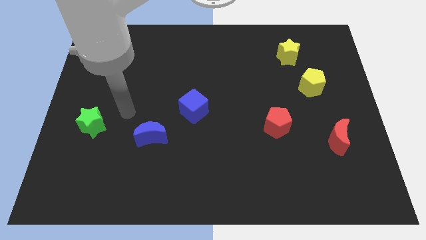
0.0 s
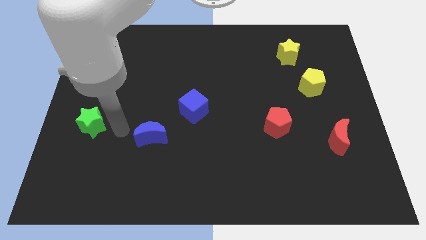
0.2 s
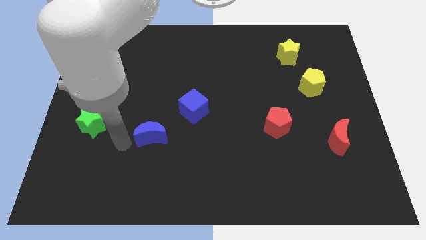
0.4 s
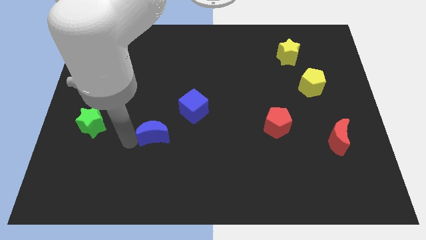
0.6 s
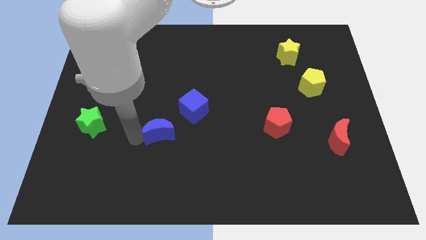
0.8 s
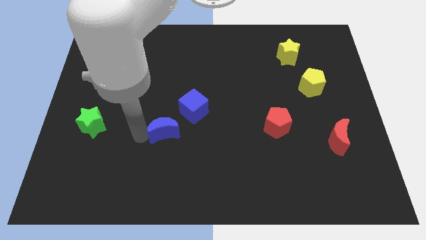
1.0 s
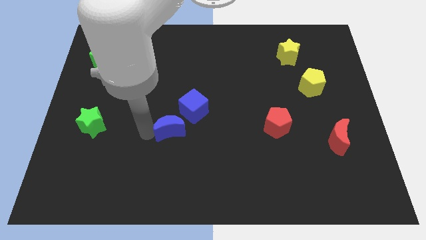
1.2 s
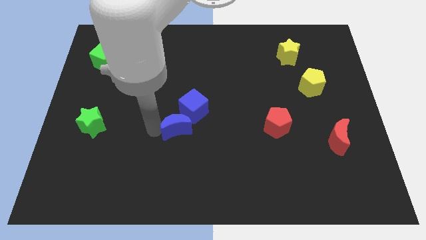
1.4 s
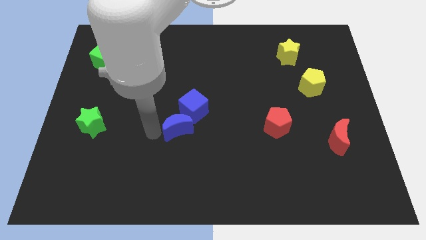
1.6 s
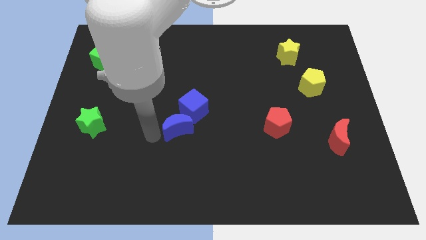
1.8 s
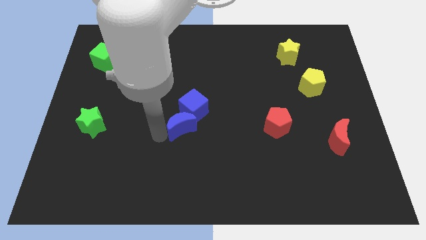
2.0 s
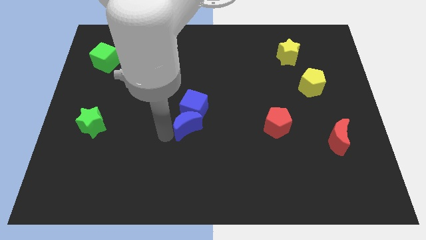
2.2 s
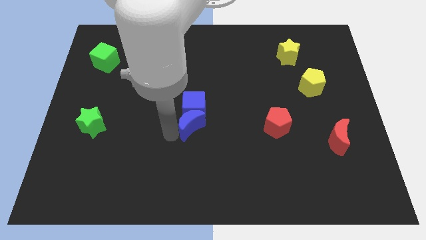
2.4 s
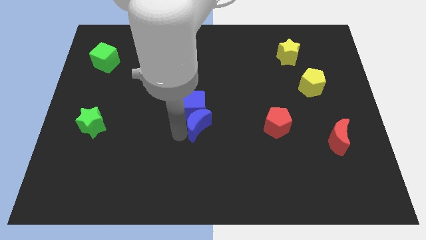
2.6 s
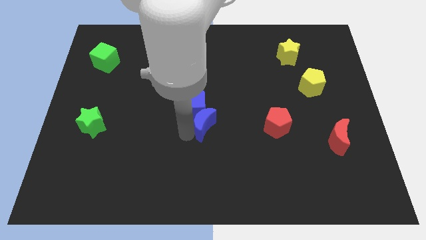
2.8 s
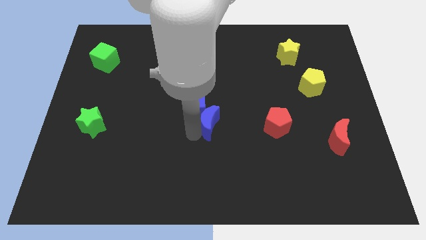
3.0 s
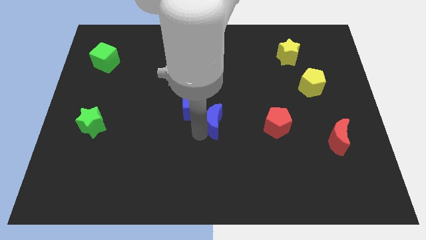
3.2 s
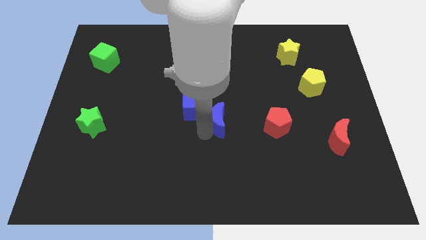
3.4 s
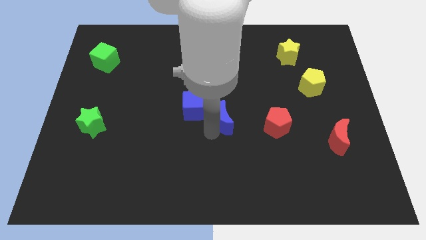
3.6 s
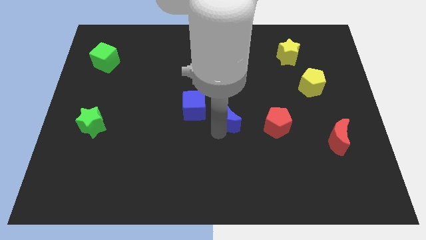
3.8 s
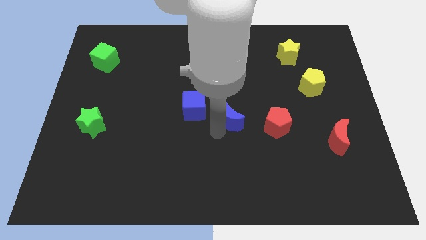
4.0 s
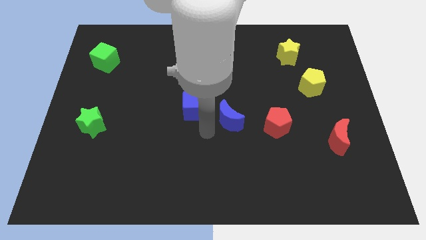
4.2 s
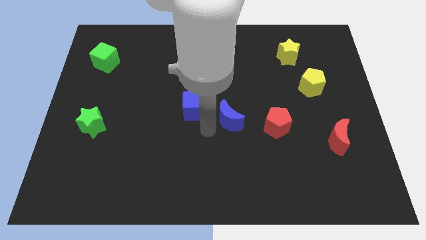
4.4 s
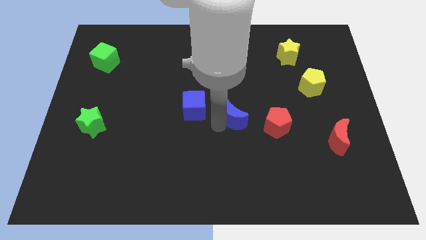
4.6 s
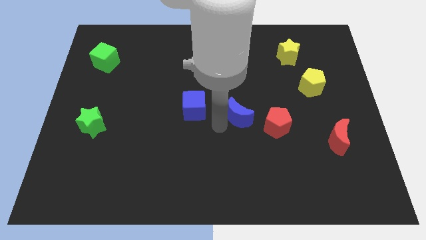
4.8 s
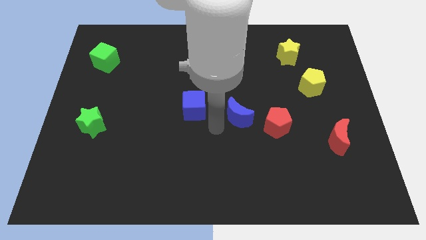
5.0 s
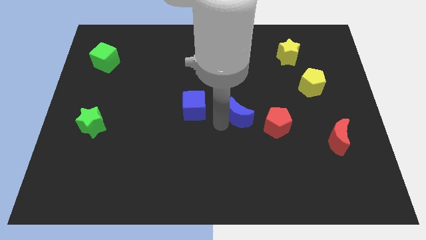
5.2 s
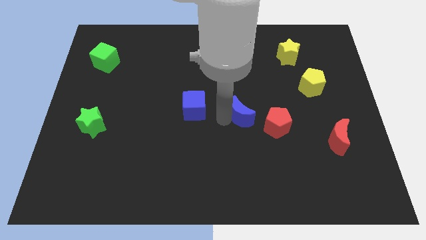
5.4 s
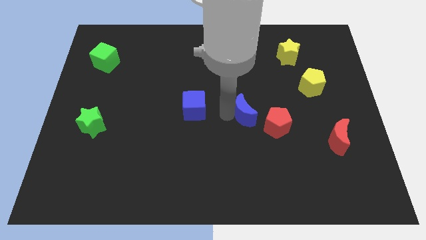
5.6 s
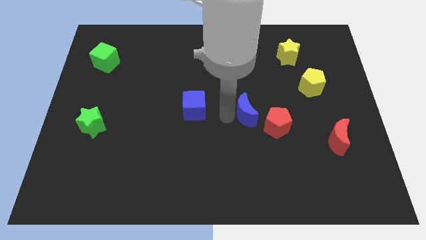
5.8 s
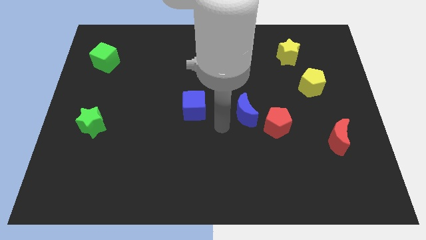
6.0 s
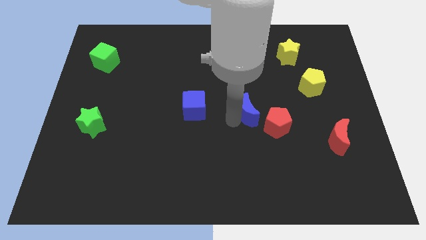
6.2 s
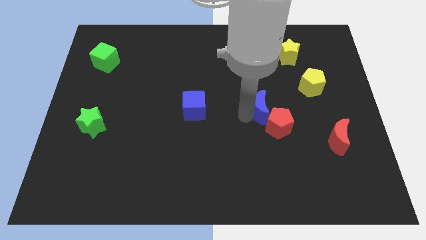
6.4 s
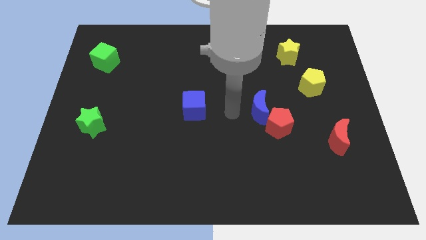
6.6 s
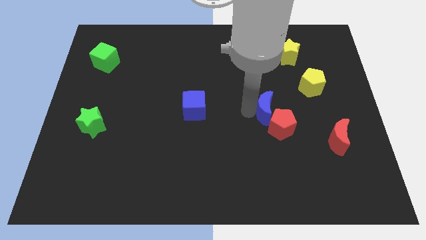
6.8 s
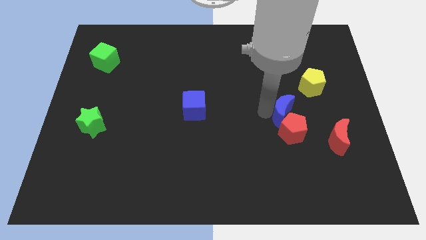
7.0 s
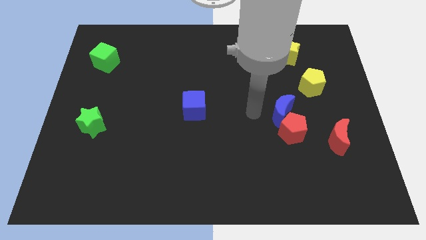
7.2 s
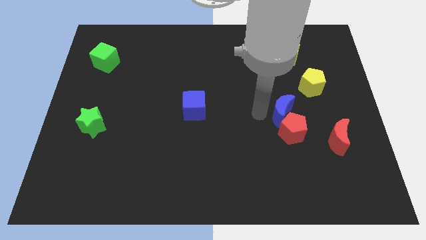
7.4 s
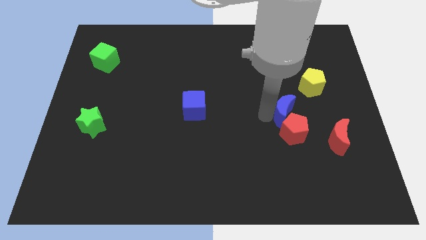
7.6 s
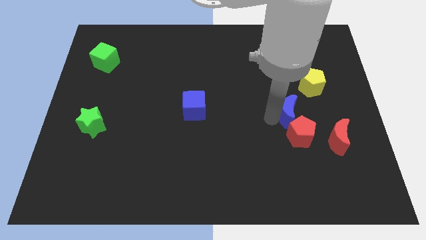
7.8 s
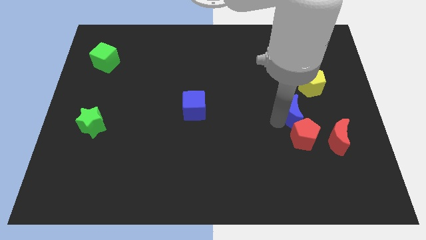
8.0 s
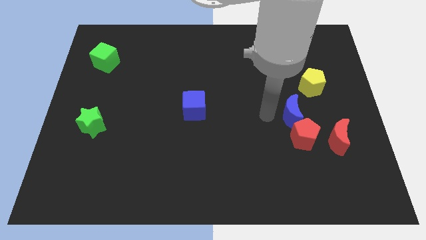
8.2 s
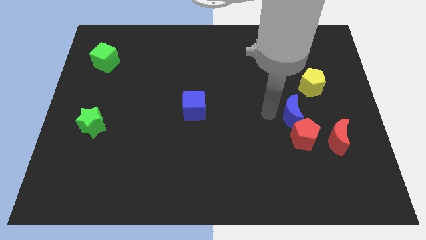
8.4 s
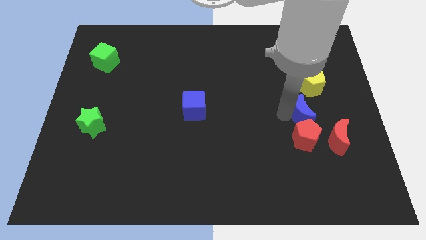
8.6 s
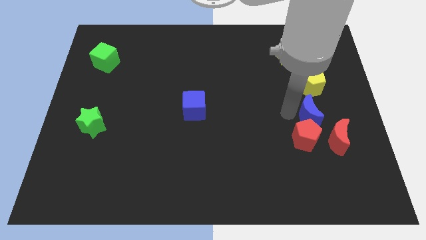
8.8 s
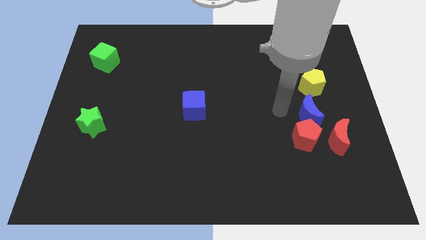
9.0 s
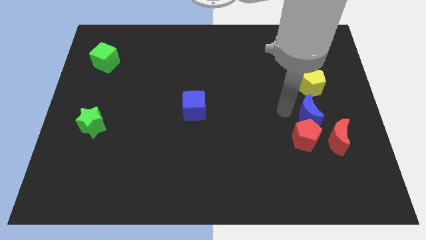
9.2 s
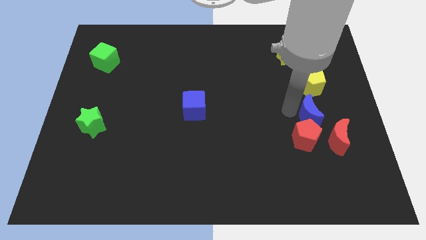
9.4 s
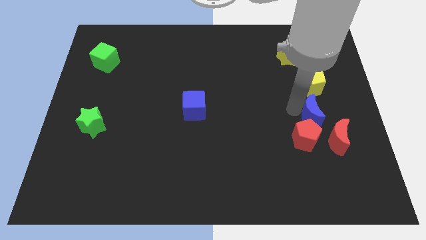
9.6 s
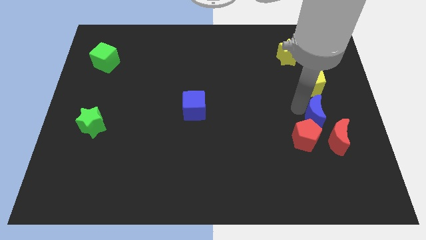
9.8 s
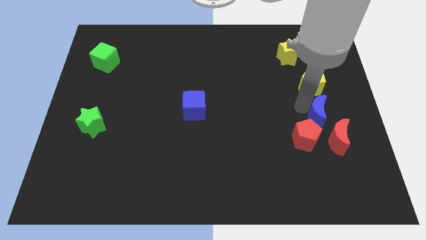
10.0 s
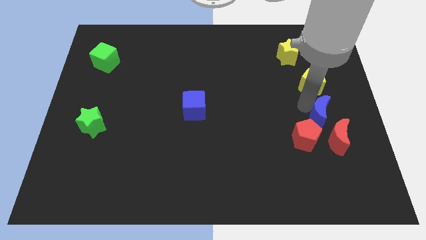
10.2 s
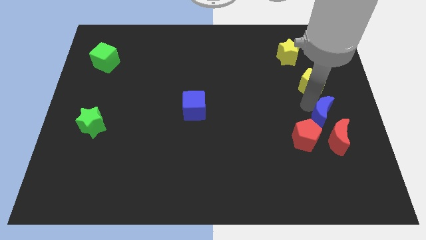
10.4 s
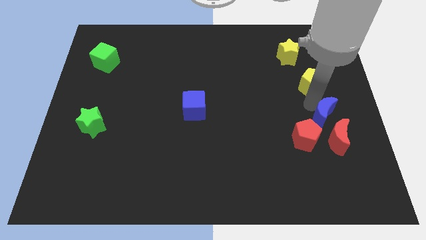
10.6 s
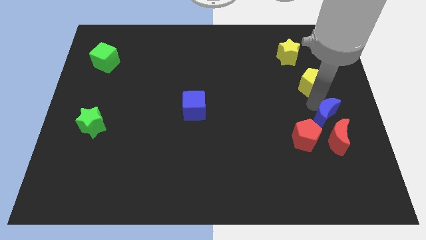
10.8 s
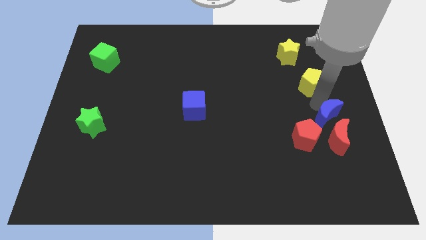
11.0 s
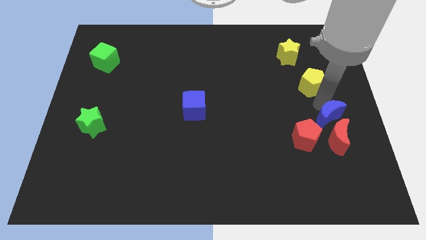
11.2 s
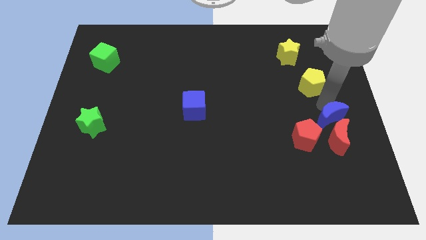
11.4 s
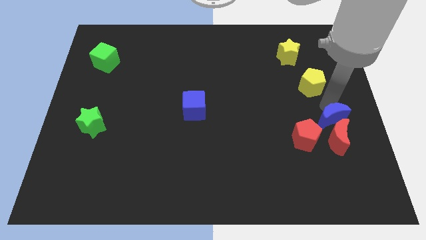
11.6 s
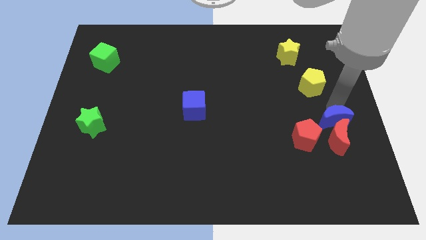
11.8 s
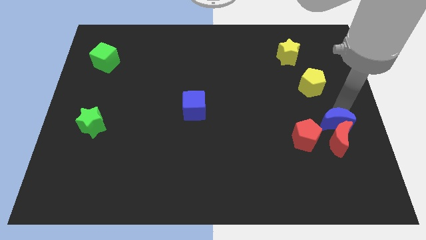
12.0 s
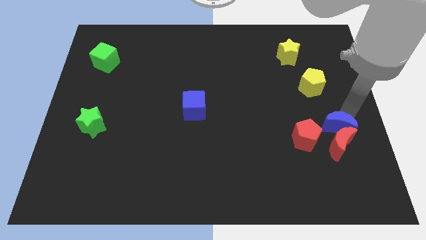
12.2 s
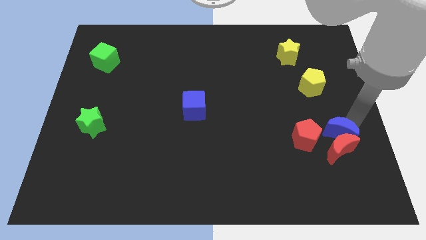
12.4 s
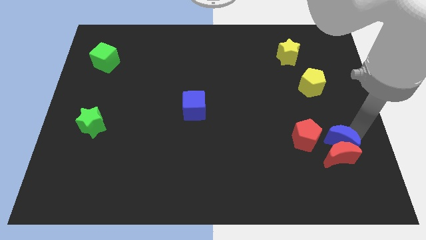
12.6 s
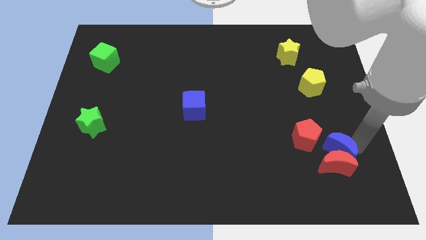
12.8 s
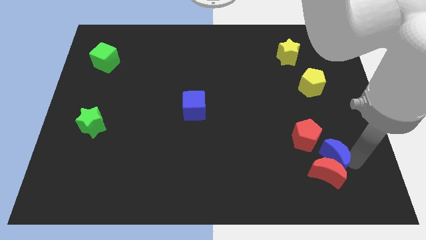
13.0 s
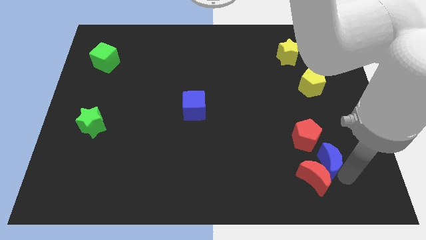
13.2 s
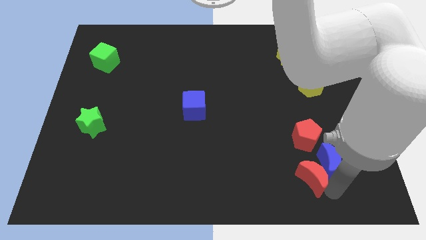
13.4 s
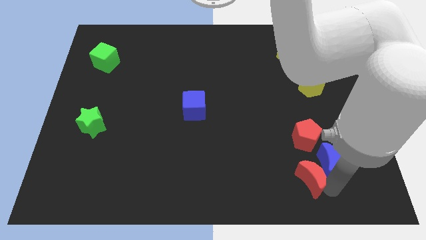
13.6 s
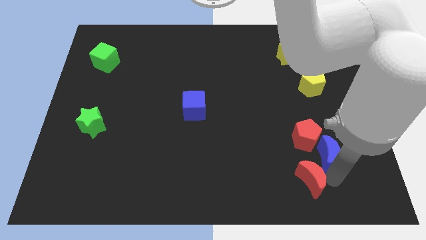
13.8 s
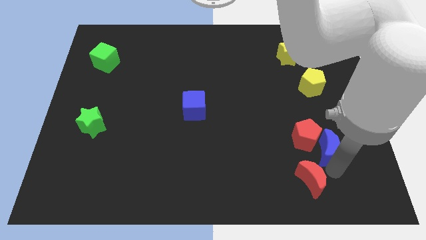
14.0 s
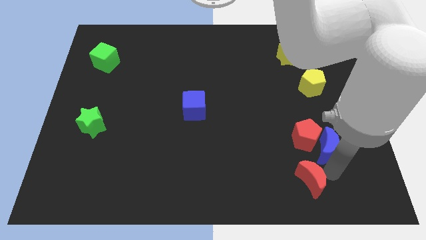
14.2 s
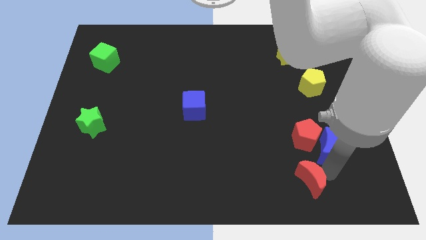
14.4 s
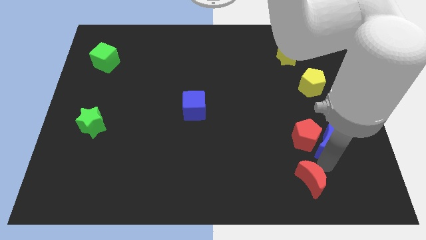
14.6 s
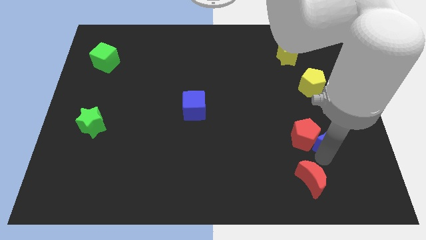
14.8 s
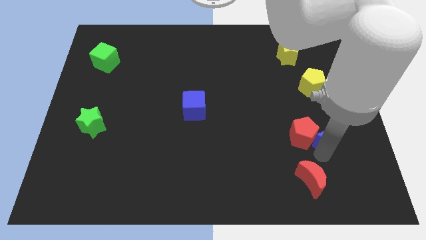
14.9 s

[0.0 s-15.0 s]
push the blue moon to the top right of the red pentagon
